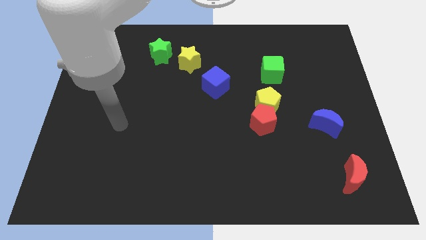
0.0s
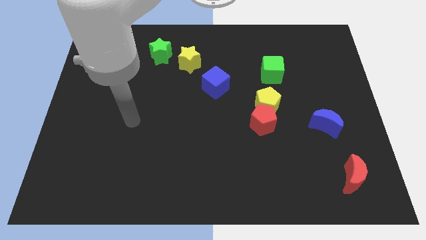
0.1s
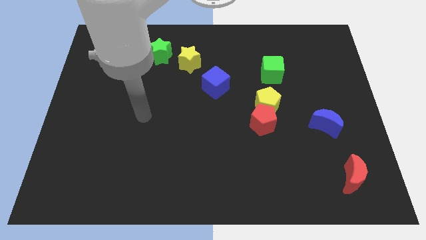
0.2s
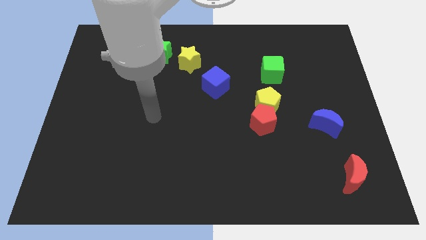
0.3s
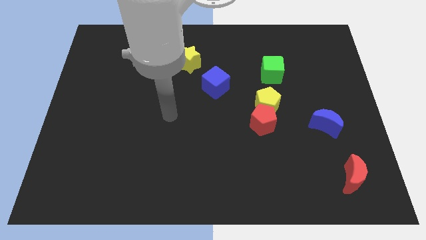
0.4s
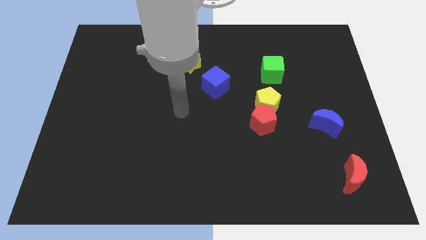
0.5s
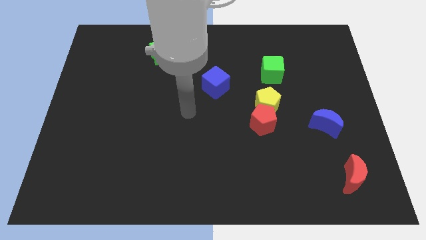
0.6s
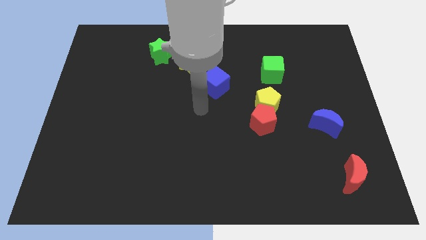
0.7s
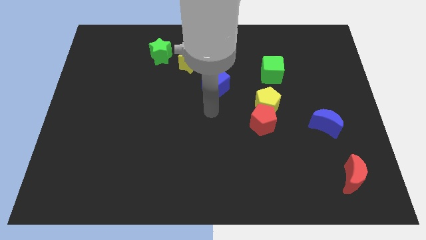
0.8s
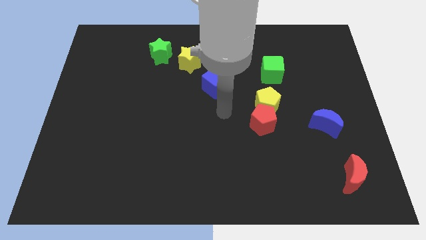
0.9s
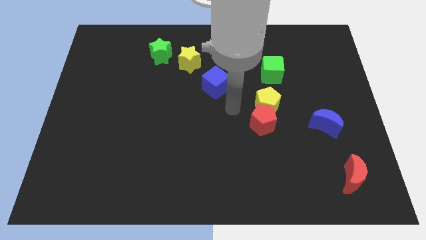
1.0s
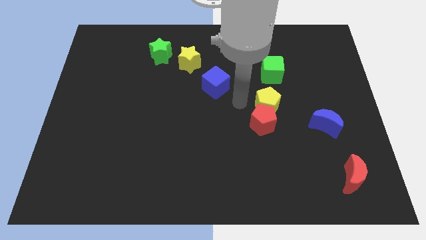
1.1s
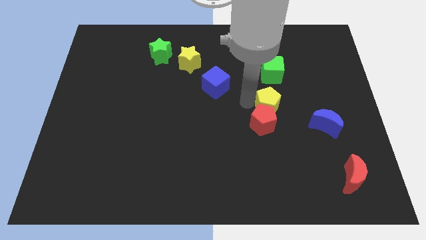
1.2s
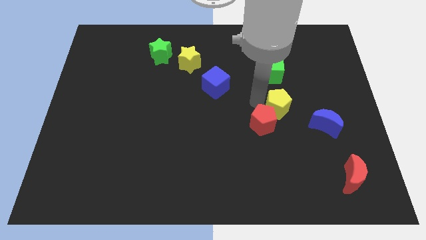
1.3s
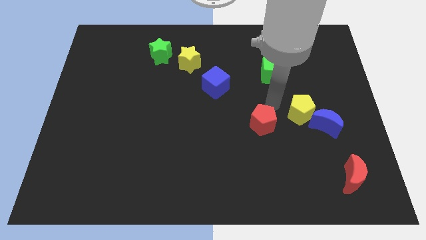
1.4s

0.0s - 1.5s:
move the red pentagon away from the yellow pentagon

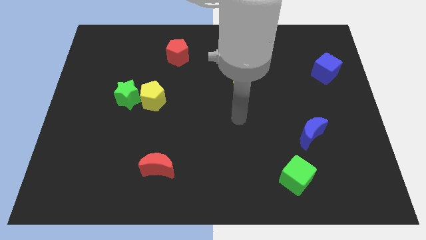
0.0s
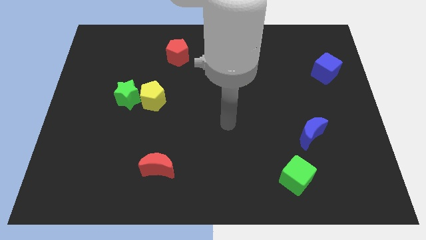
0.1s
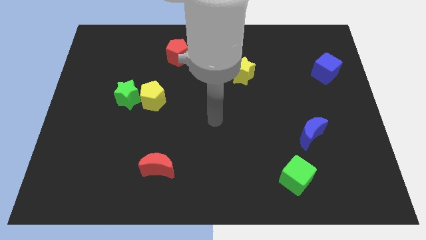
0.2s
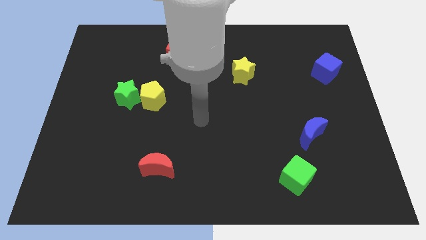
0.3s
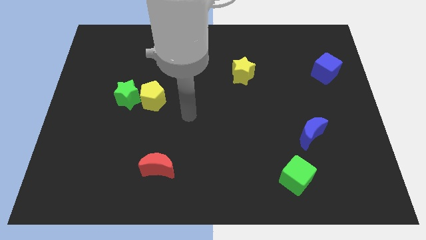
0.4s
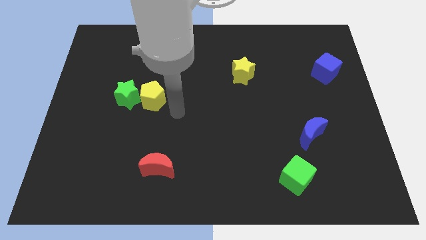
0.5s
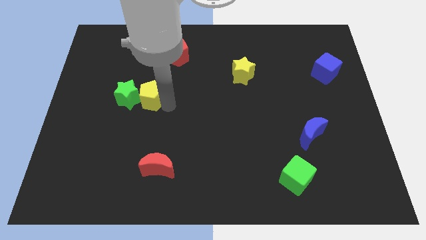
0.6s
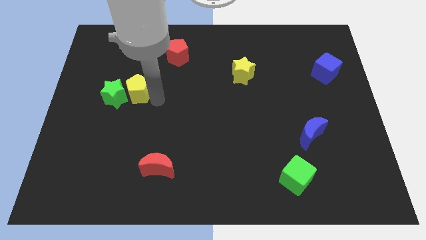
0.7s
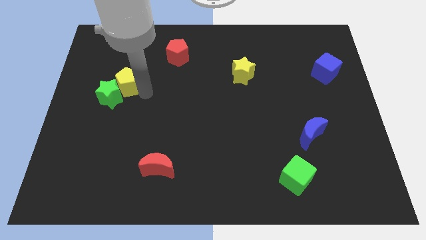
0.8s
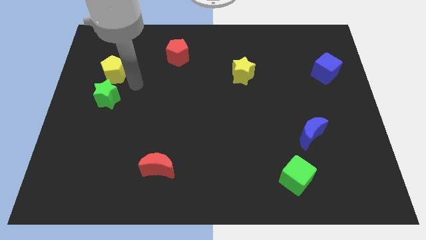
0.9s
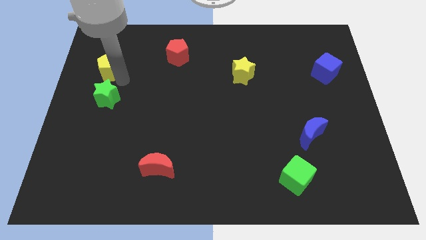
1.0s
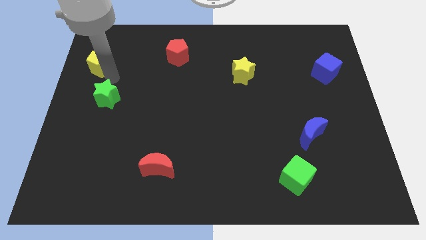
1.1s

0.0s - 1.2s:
pull the green star apart from the yellow pentagon

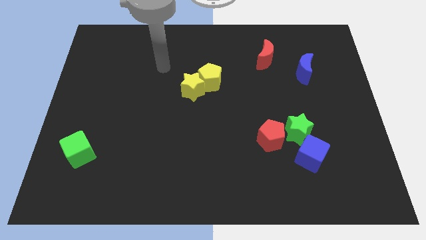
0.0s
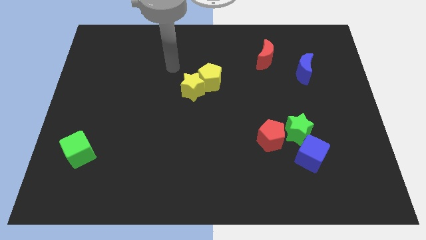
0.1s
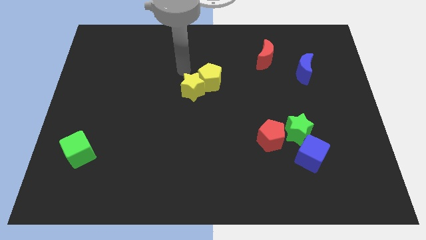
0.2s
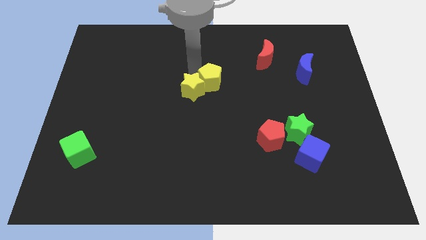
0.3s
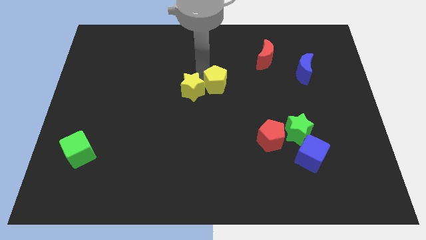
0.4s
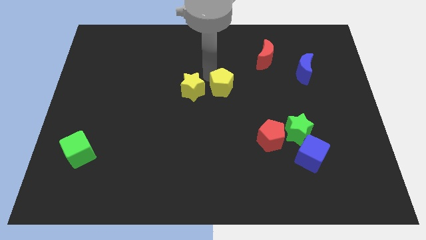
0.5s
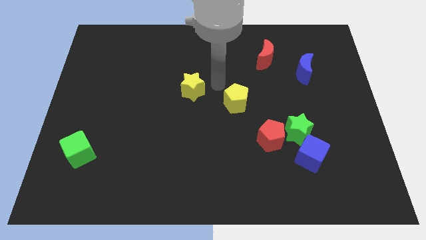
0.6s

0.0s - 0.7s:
separate the yellow star from the yellow pentagon

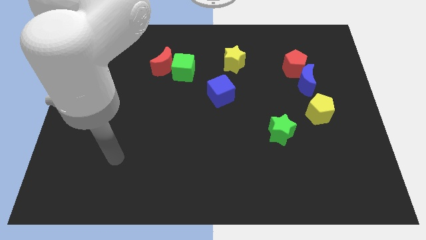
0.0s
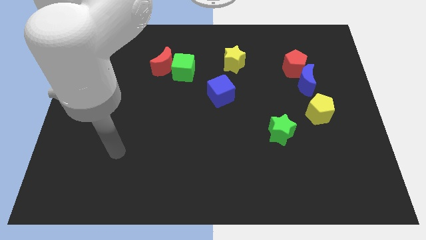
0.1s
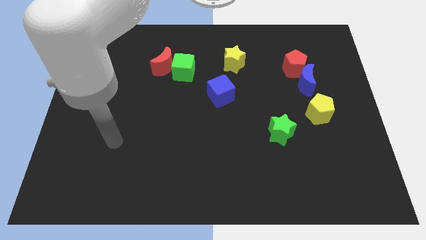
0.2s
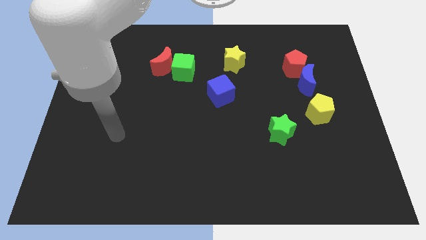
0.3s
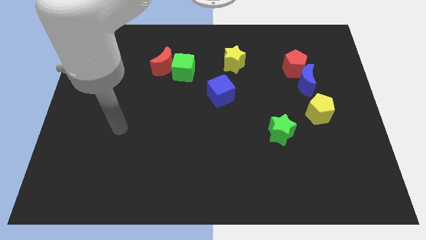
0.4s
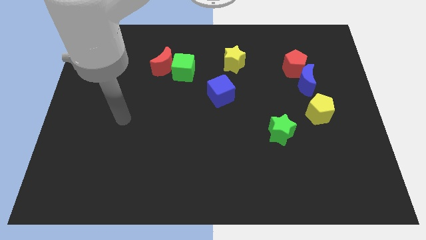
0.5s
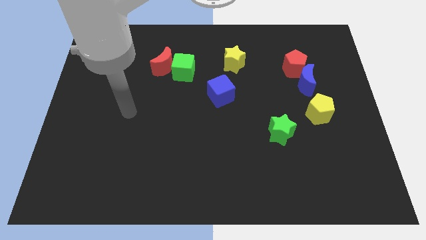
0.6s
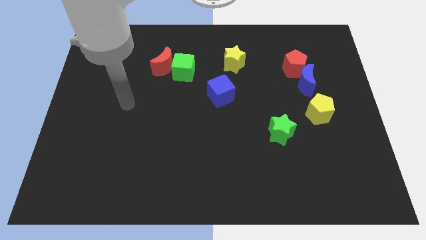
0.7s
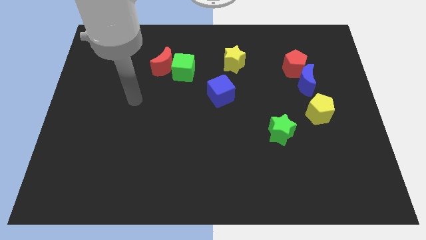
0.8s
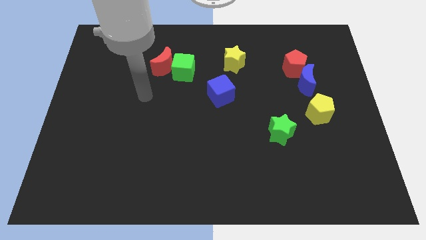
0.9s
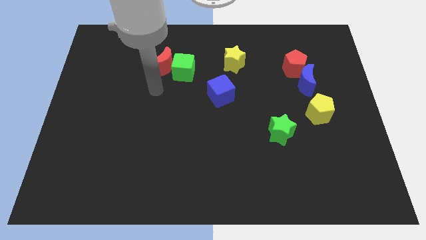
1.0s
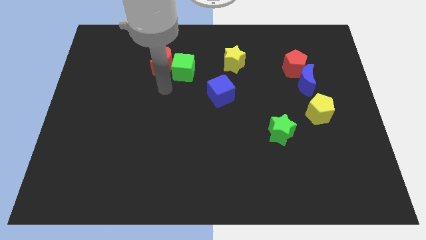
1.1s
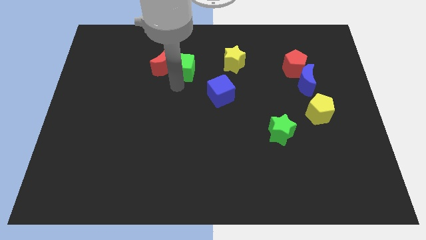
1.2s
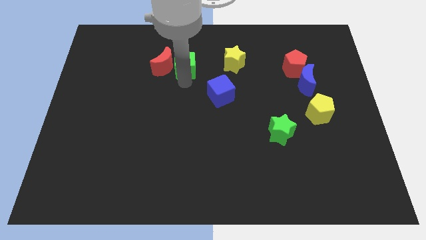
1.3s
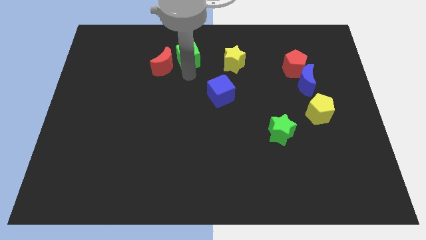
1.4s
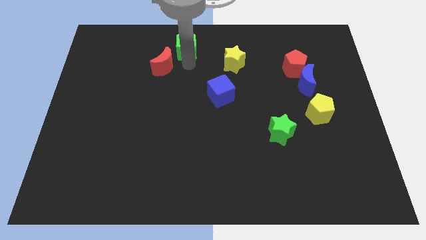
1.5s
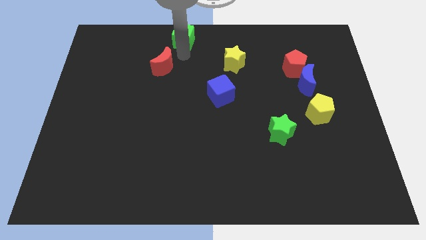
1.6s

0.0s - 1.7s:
move the red moon away from the green cube

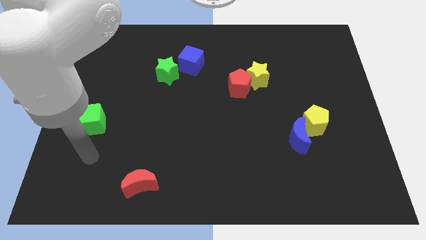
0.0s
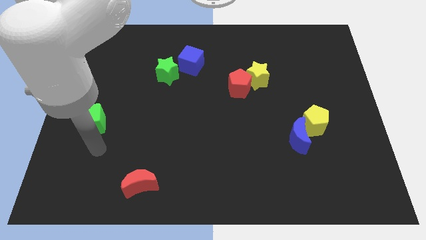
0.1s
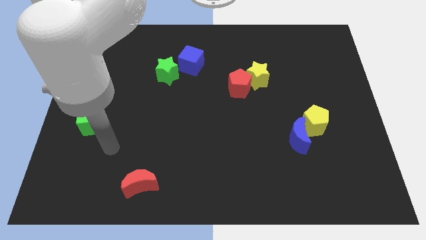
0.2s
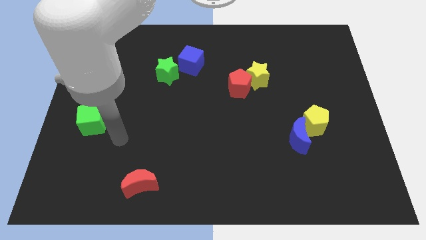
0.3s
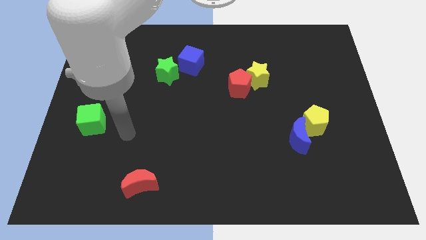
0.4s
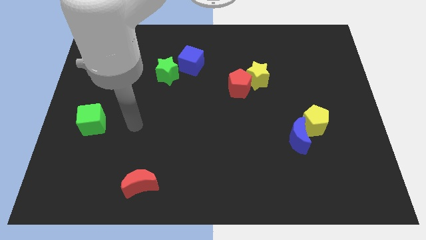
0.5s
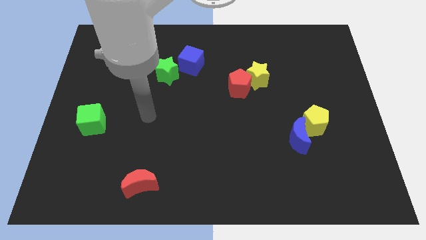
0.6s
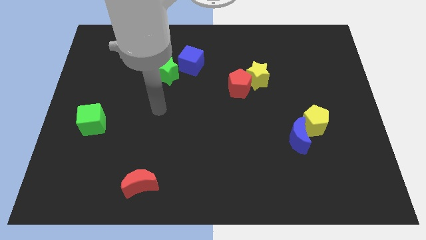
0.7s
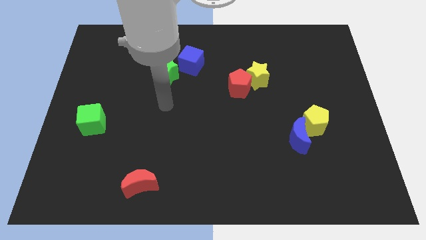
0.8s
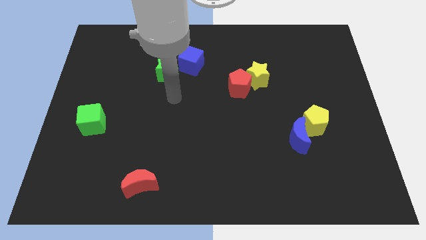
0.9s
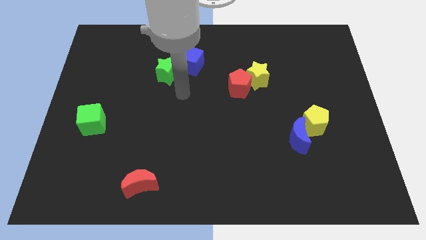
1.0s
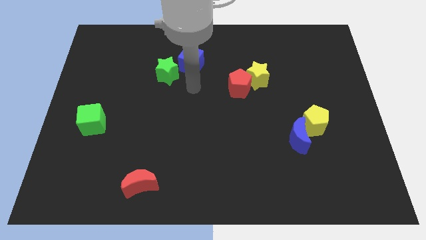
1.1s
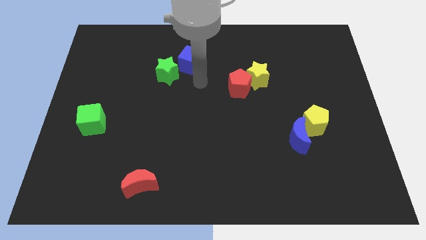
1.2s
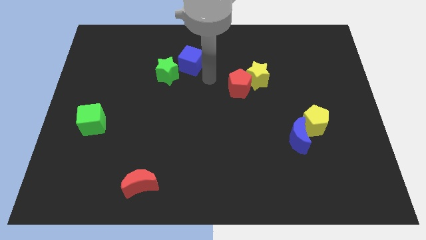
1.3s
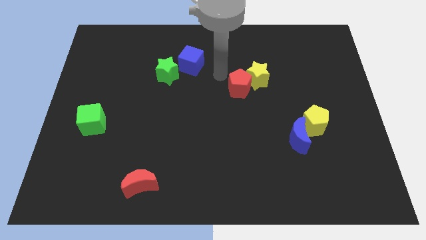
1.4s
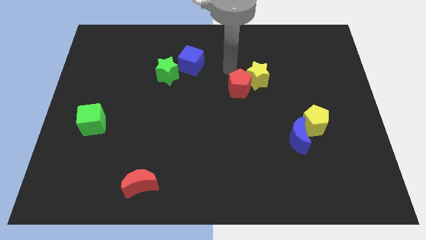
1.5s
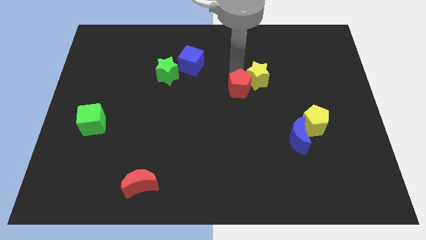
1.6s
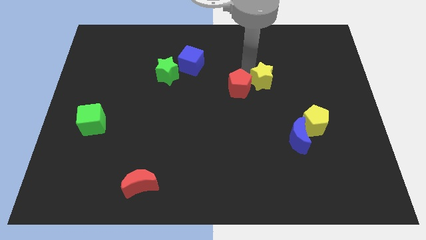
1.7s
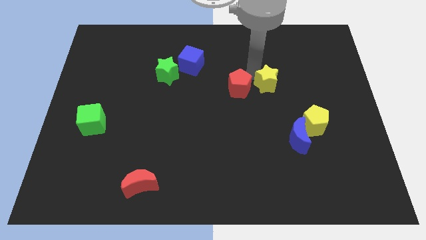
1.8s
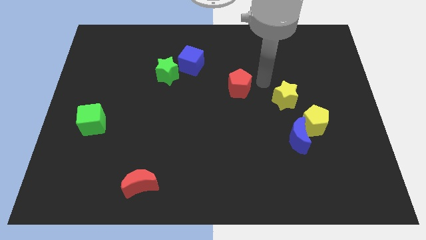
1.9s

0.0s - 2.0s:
move the red pentagon away from the yellow star

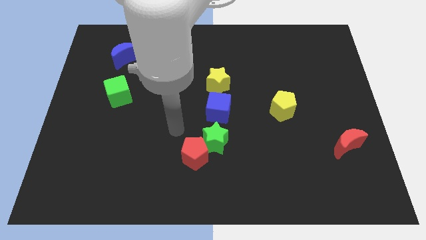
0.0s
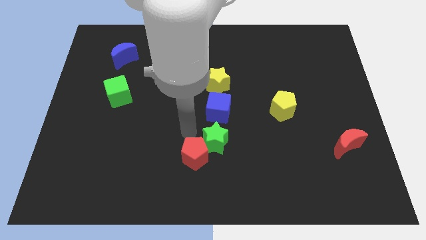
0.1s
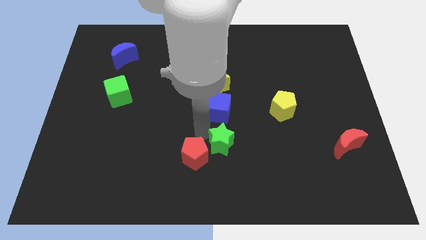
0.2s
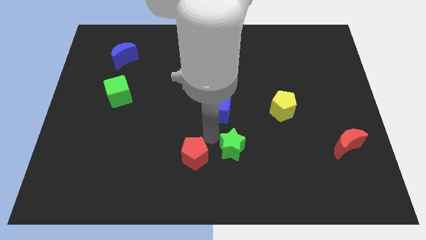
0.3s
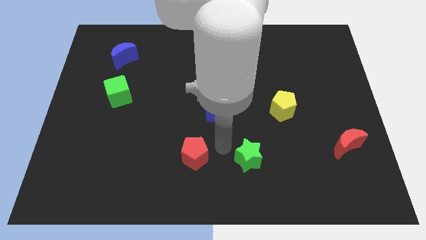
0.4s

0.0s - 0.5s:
separate the red pentagon from the green star

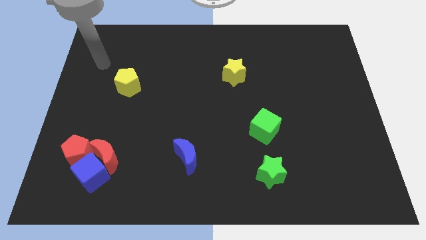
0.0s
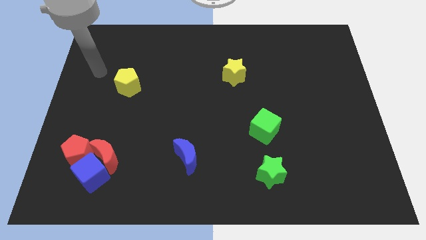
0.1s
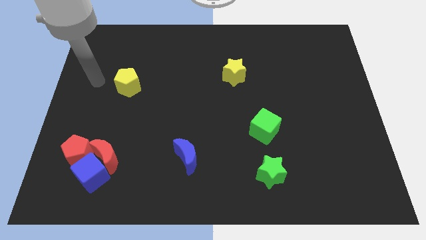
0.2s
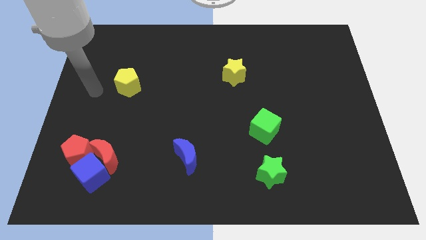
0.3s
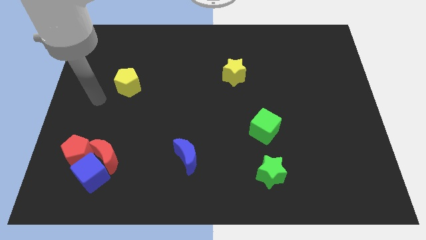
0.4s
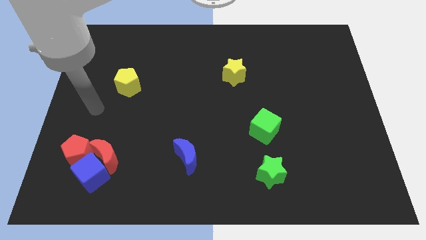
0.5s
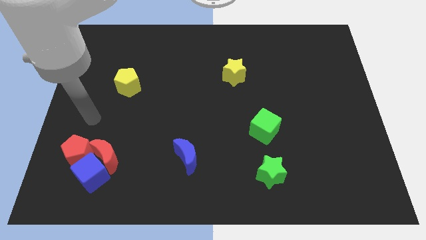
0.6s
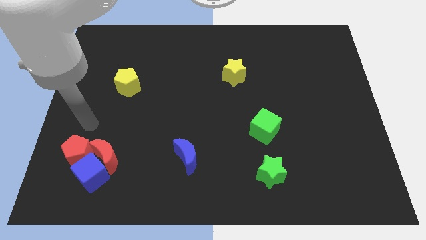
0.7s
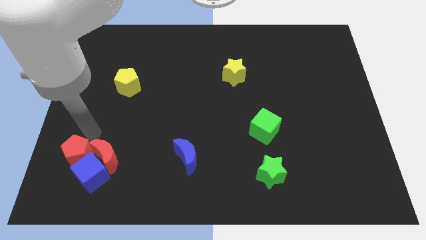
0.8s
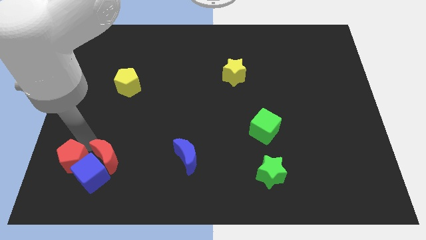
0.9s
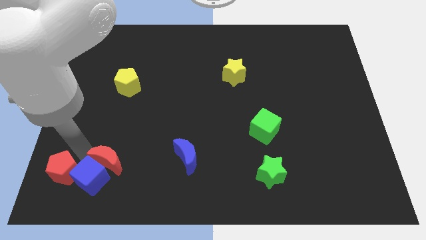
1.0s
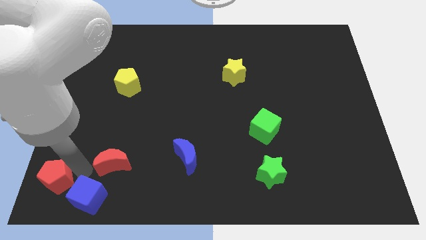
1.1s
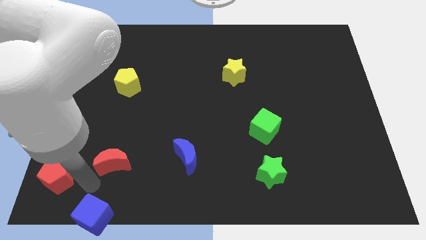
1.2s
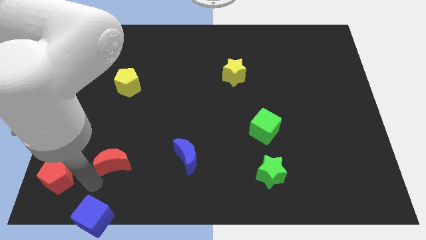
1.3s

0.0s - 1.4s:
separate the red moon from the blue cube and red pentagon

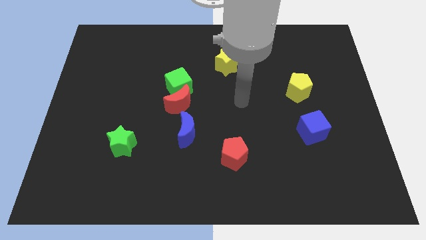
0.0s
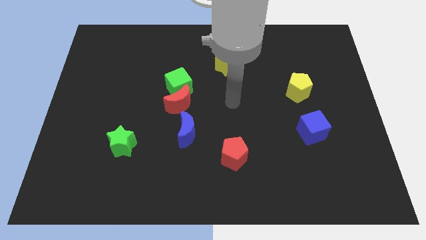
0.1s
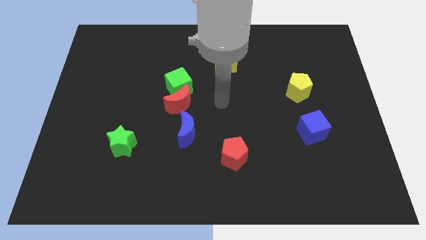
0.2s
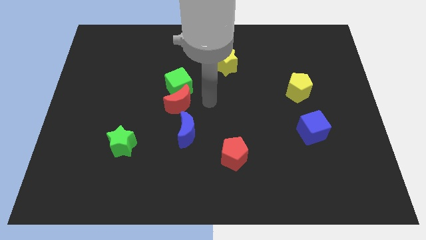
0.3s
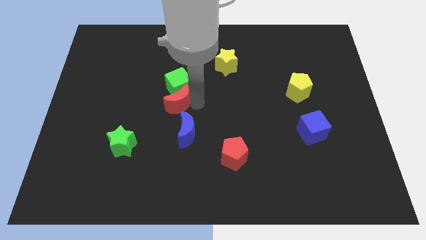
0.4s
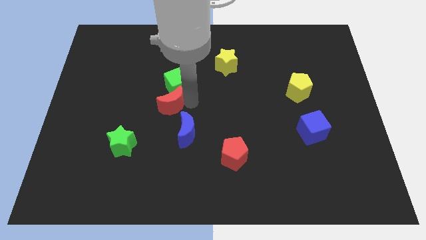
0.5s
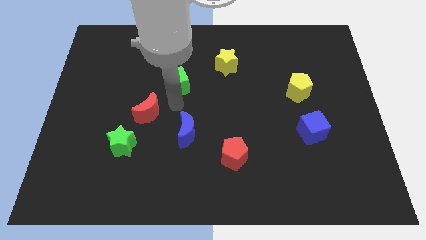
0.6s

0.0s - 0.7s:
move the green cube away from the red moon
